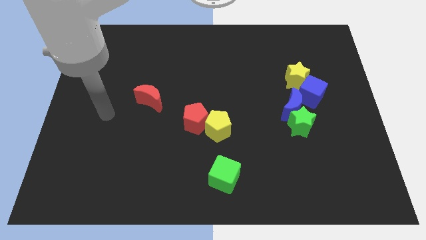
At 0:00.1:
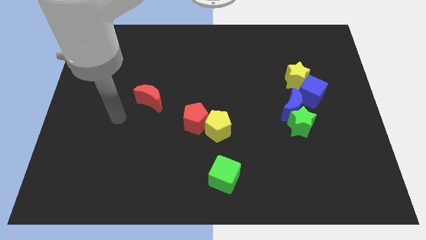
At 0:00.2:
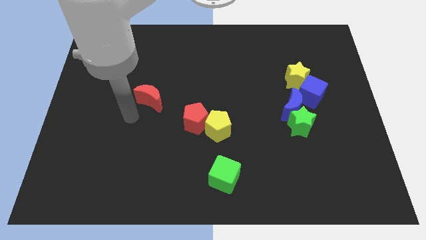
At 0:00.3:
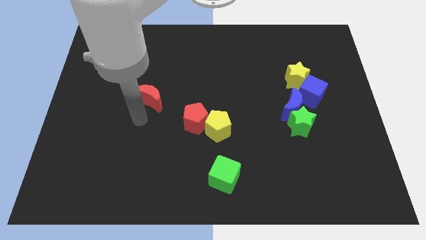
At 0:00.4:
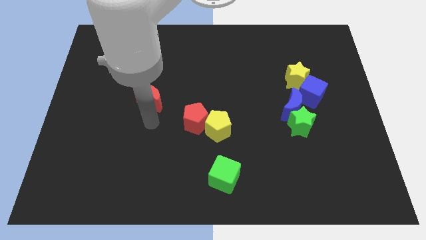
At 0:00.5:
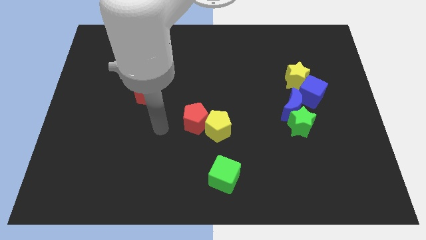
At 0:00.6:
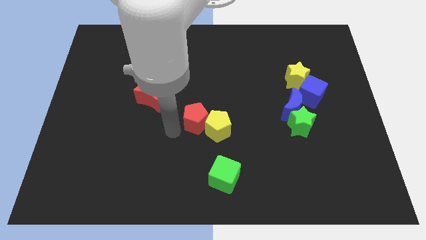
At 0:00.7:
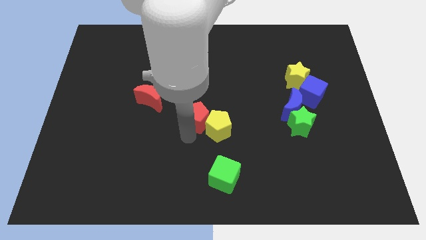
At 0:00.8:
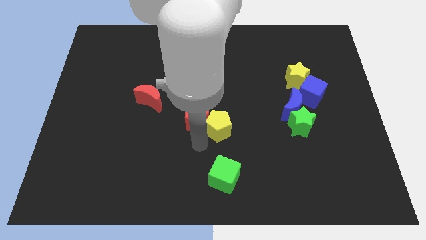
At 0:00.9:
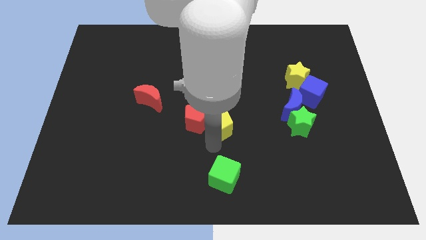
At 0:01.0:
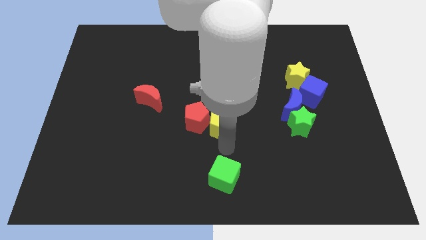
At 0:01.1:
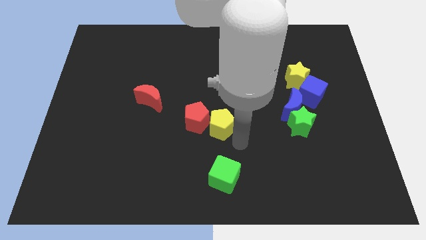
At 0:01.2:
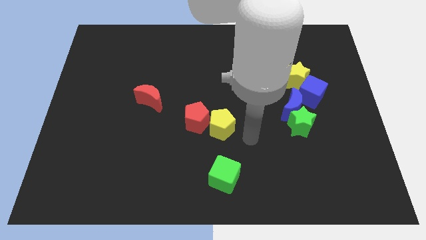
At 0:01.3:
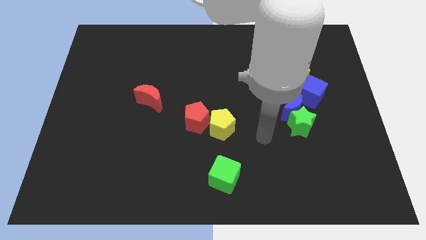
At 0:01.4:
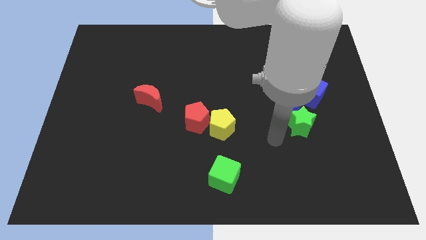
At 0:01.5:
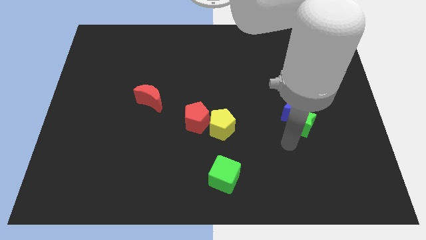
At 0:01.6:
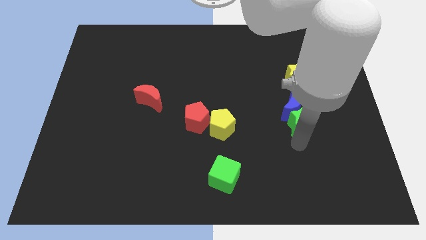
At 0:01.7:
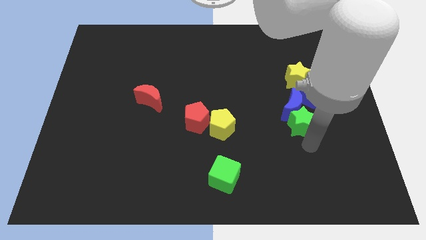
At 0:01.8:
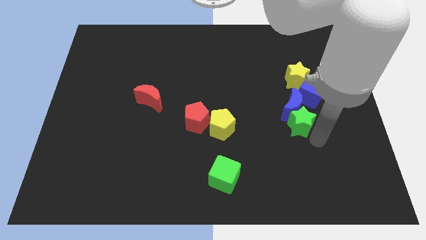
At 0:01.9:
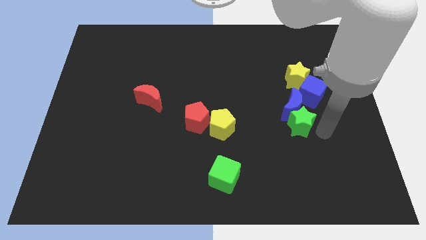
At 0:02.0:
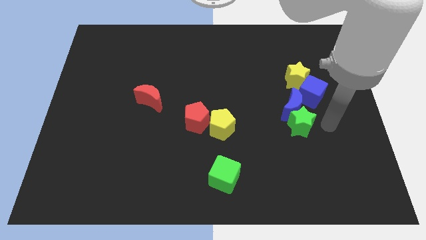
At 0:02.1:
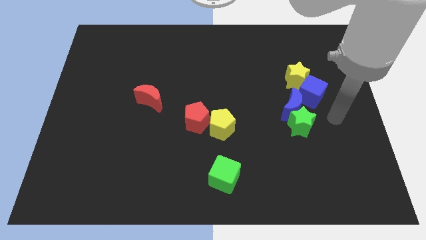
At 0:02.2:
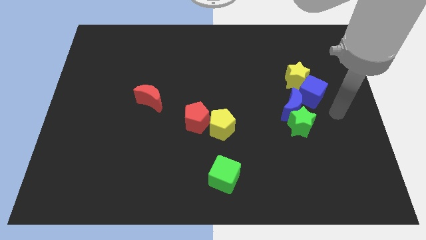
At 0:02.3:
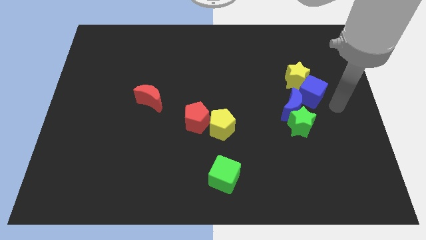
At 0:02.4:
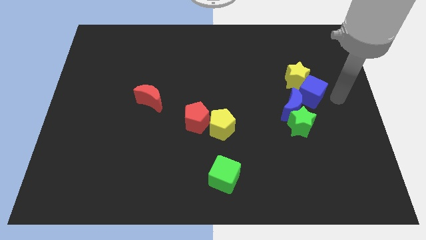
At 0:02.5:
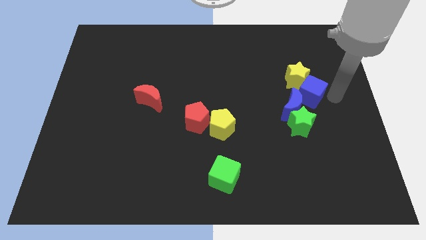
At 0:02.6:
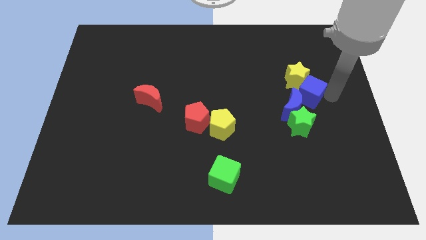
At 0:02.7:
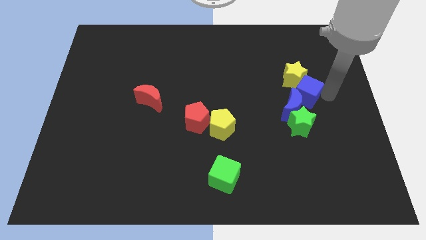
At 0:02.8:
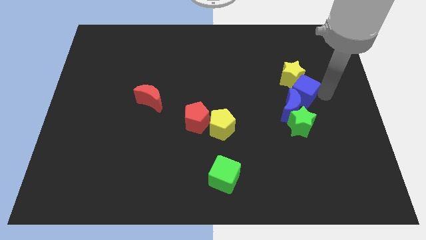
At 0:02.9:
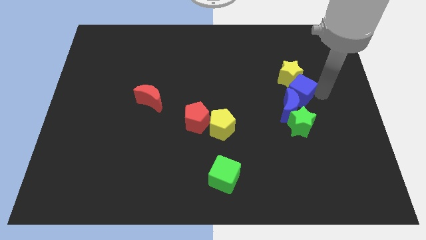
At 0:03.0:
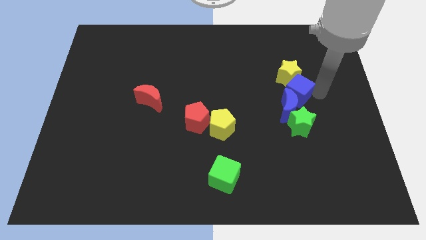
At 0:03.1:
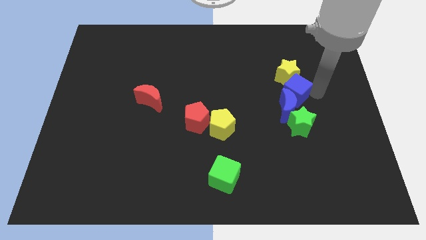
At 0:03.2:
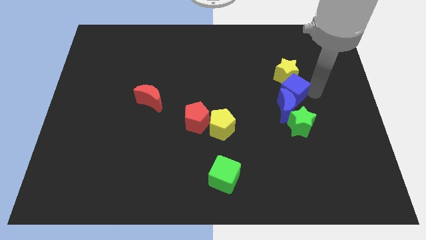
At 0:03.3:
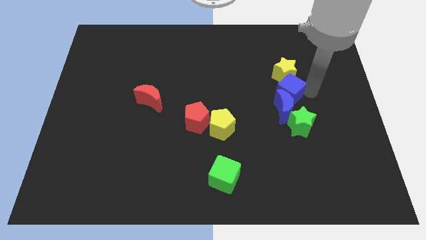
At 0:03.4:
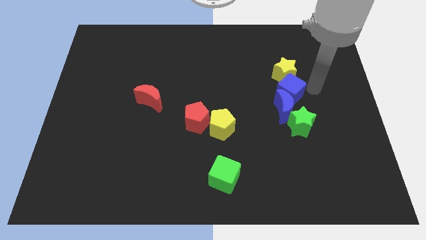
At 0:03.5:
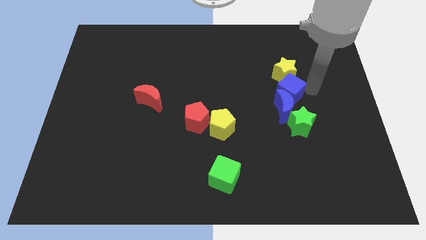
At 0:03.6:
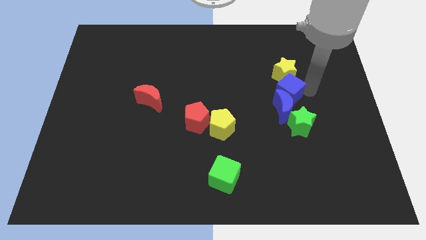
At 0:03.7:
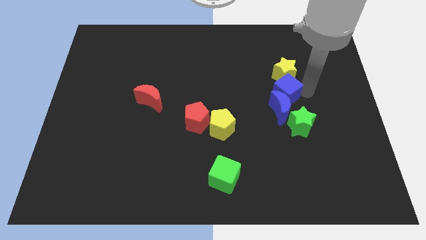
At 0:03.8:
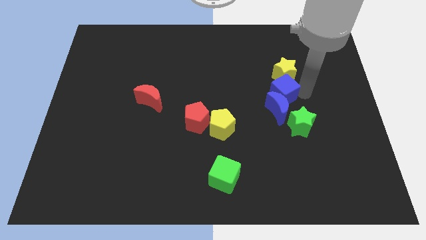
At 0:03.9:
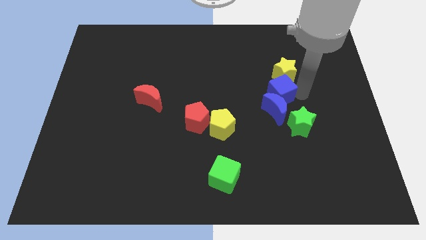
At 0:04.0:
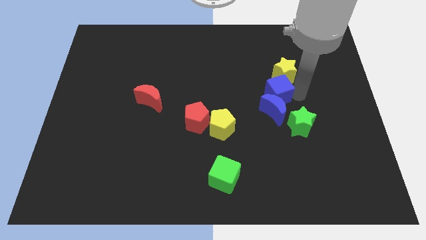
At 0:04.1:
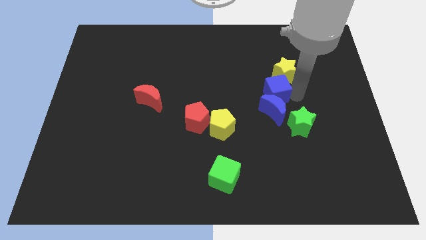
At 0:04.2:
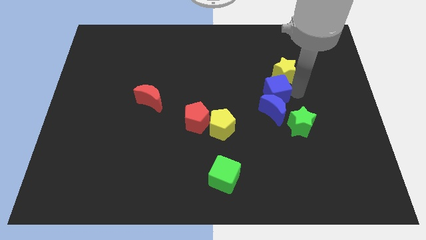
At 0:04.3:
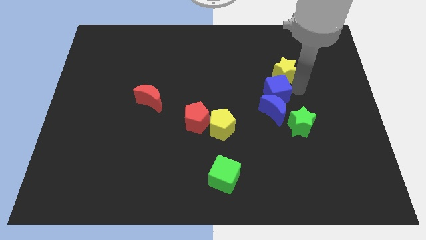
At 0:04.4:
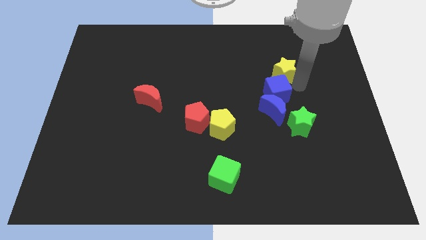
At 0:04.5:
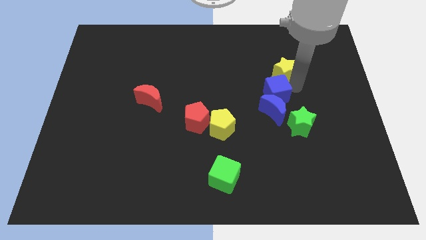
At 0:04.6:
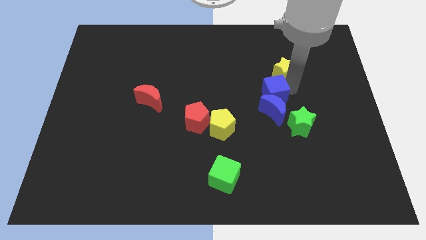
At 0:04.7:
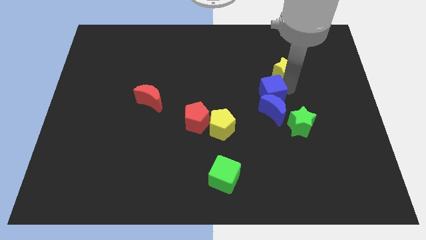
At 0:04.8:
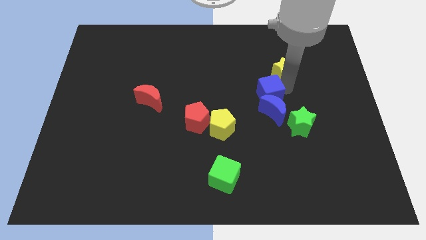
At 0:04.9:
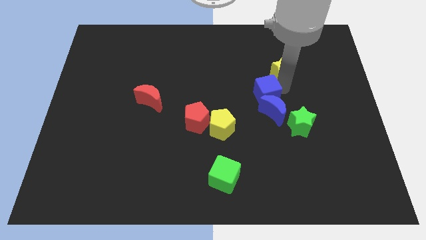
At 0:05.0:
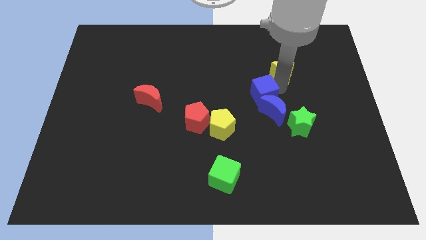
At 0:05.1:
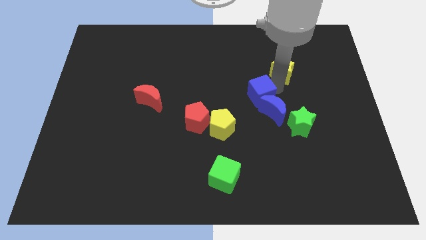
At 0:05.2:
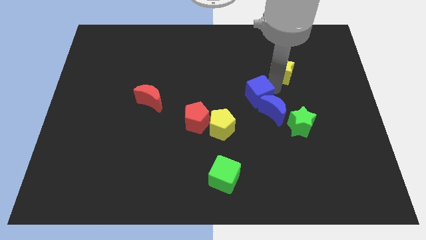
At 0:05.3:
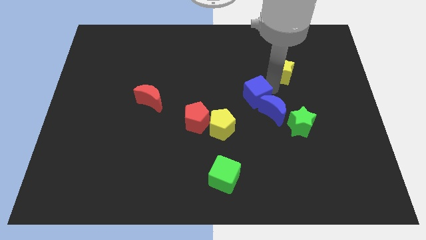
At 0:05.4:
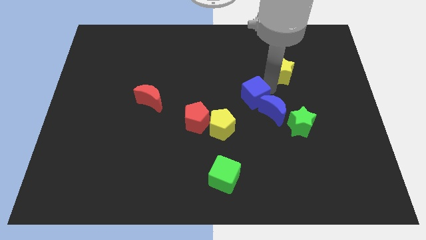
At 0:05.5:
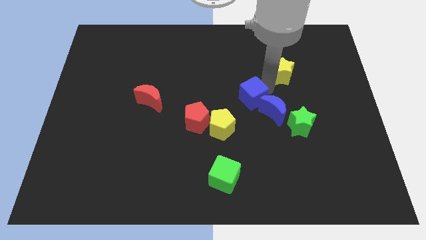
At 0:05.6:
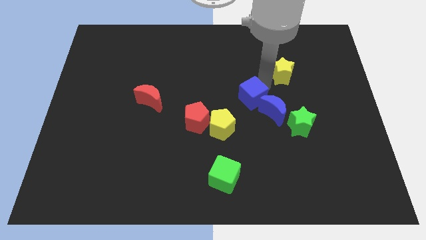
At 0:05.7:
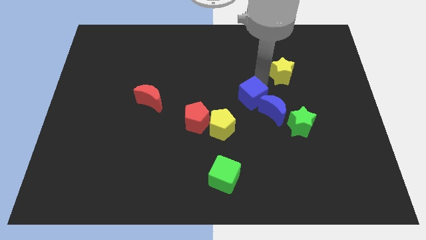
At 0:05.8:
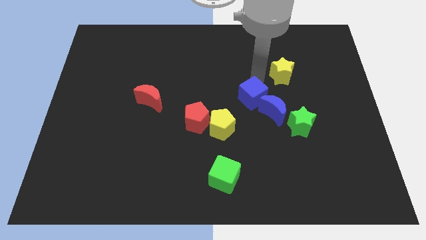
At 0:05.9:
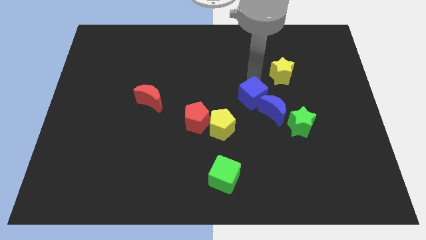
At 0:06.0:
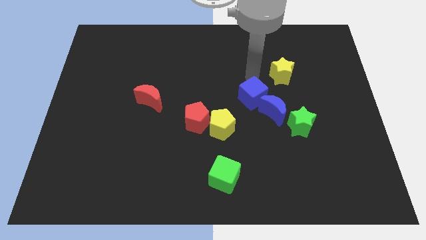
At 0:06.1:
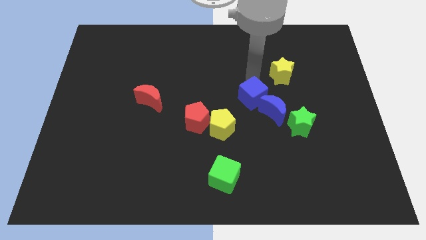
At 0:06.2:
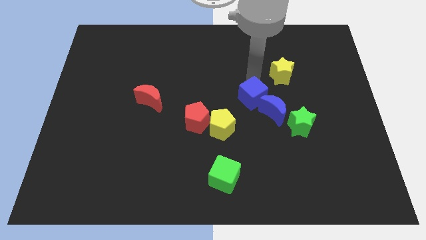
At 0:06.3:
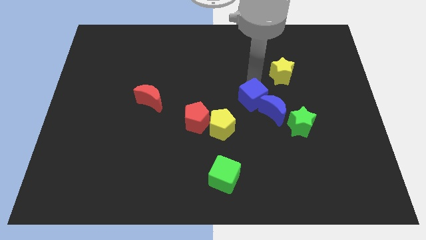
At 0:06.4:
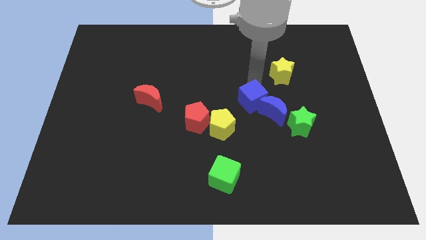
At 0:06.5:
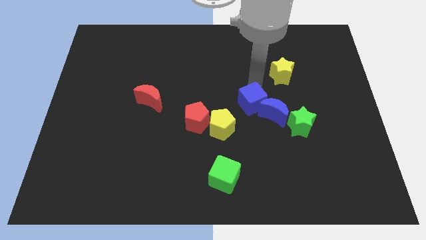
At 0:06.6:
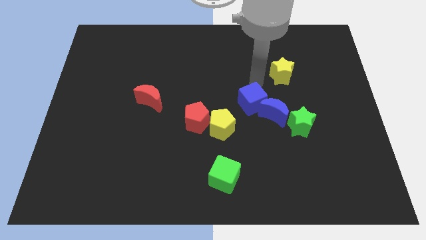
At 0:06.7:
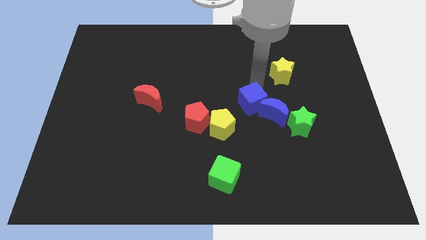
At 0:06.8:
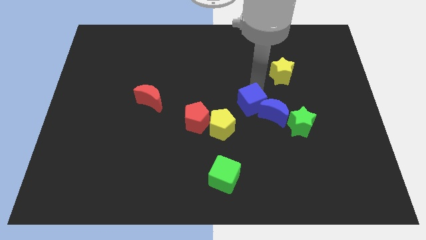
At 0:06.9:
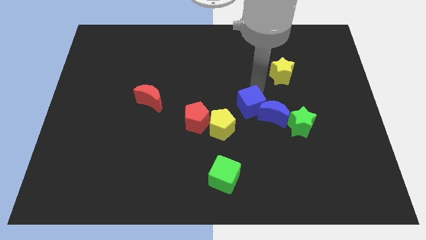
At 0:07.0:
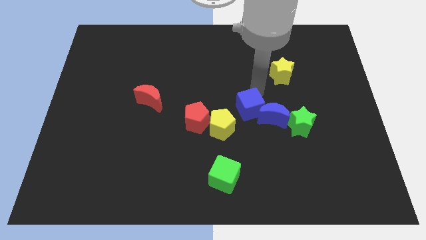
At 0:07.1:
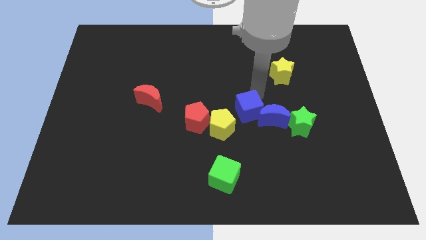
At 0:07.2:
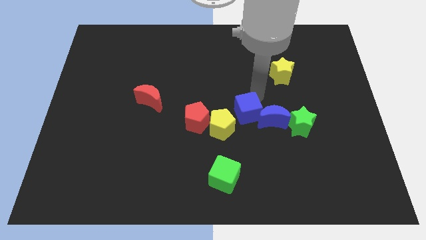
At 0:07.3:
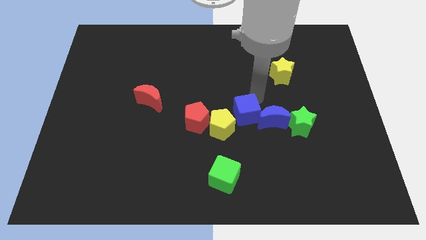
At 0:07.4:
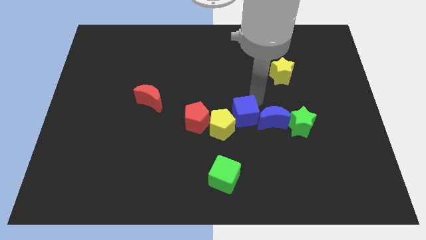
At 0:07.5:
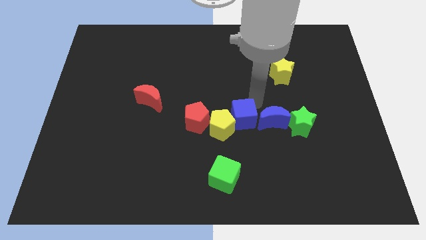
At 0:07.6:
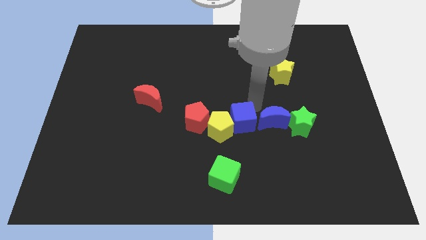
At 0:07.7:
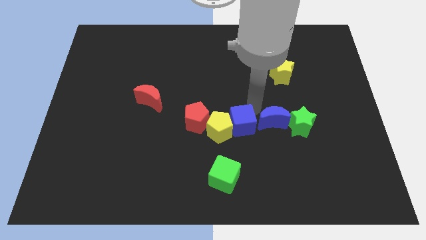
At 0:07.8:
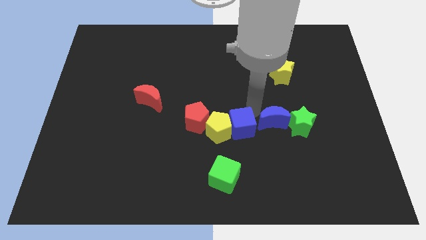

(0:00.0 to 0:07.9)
push the blue cube to the bottom right side of the yellow pentagon
